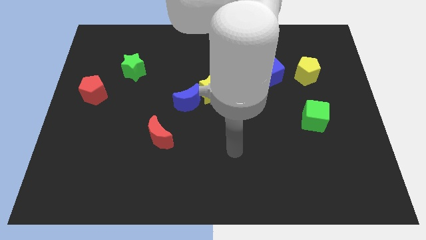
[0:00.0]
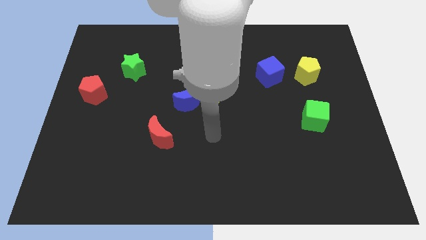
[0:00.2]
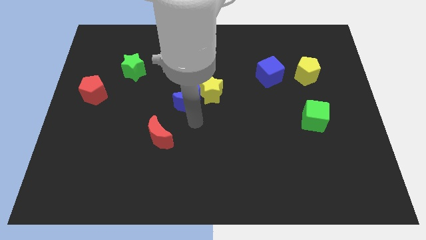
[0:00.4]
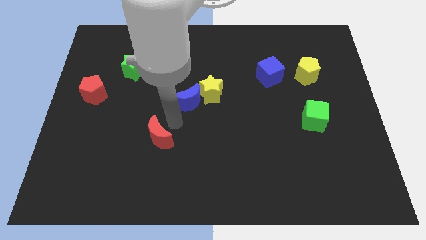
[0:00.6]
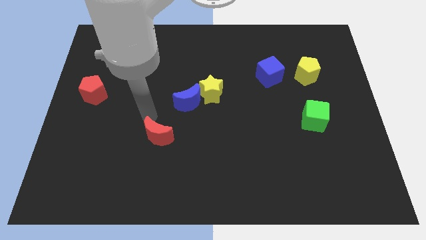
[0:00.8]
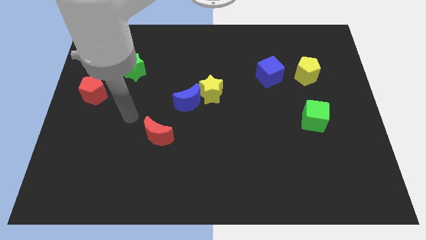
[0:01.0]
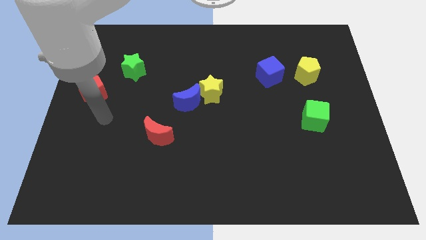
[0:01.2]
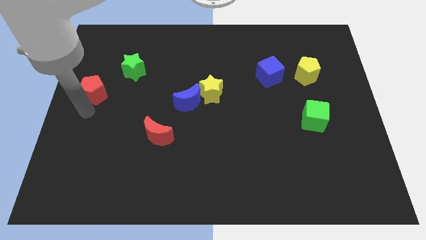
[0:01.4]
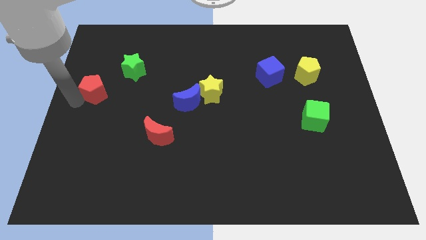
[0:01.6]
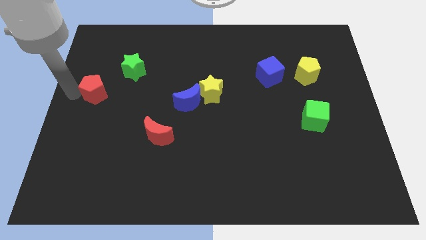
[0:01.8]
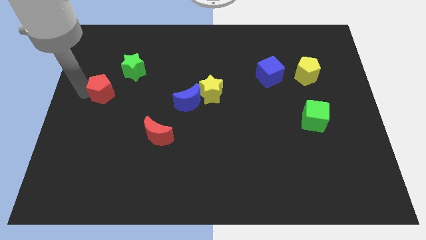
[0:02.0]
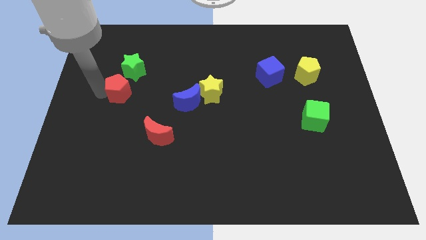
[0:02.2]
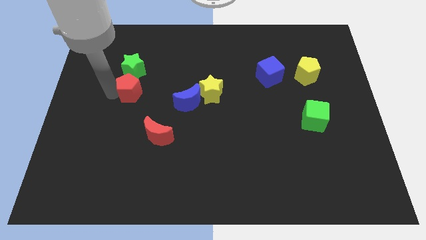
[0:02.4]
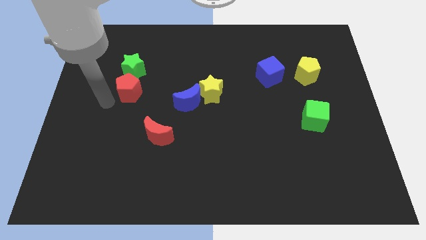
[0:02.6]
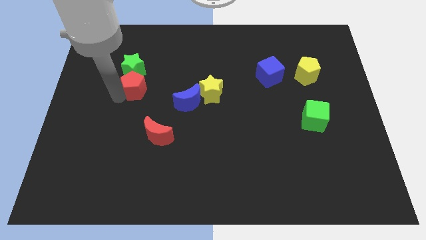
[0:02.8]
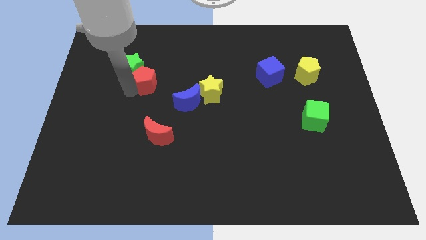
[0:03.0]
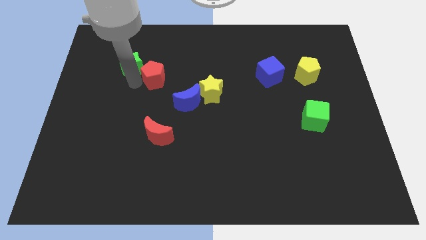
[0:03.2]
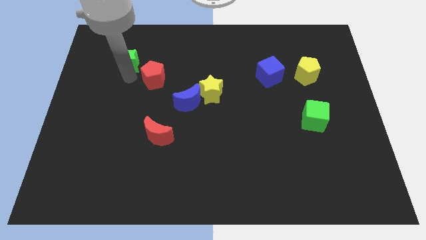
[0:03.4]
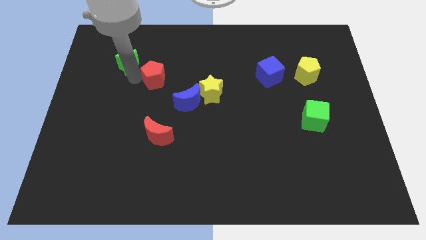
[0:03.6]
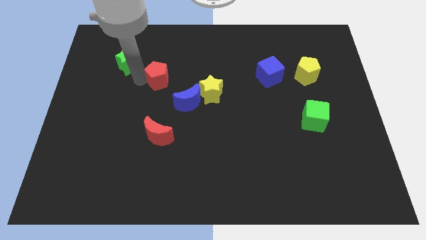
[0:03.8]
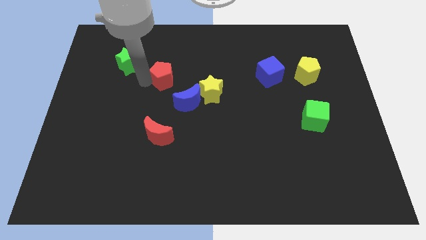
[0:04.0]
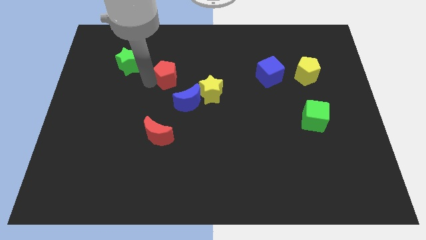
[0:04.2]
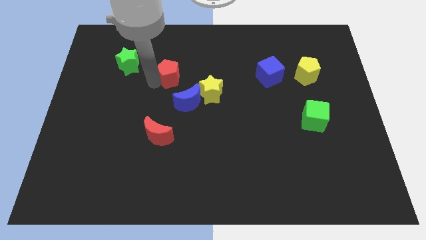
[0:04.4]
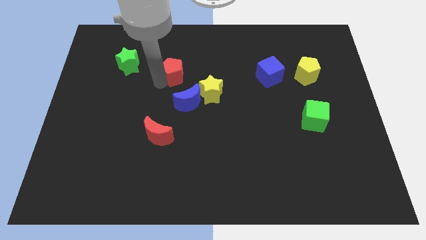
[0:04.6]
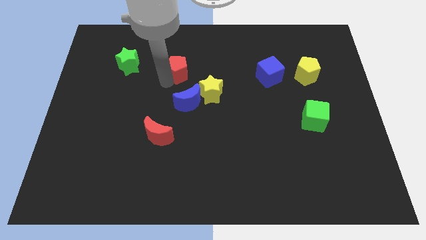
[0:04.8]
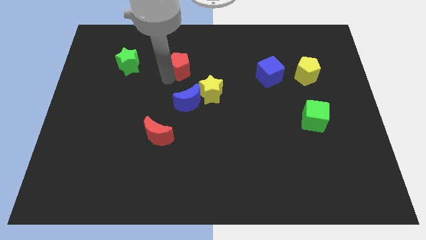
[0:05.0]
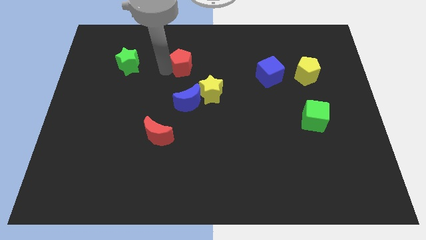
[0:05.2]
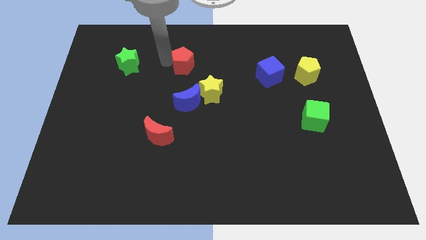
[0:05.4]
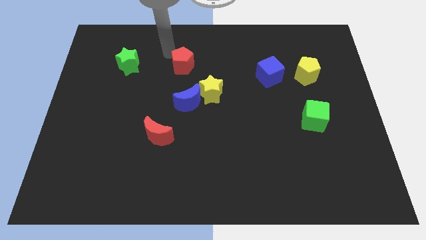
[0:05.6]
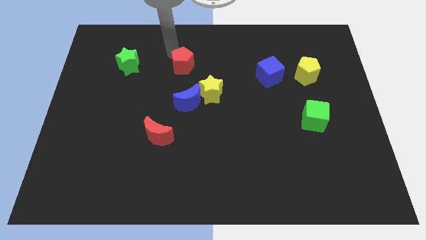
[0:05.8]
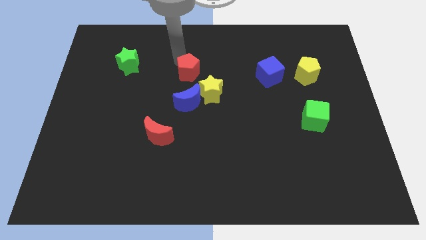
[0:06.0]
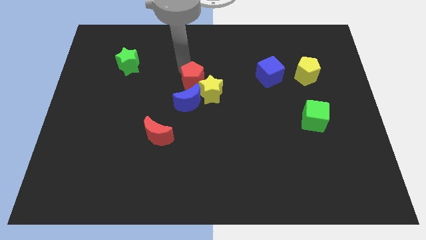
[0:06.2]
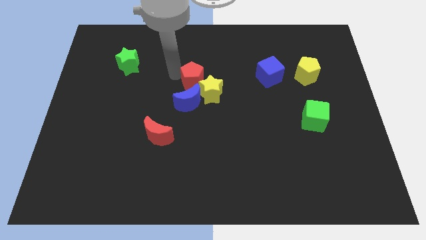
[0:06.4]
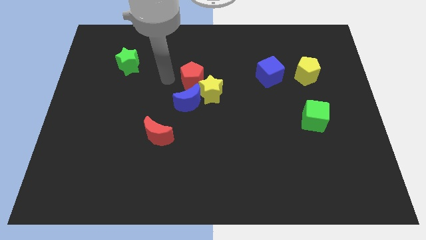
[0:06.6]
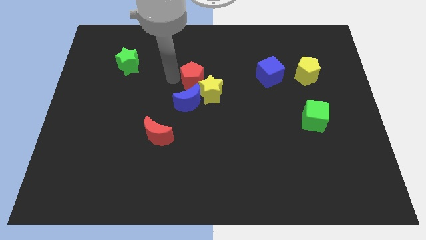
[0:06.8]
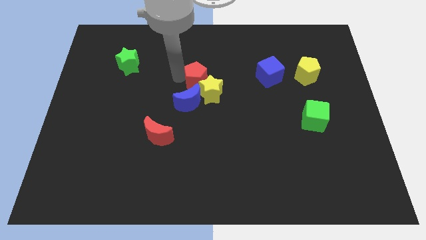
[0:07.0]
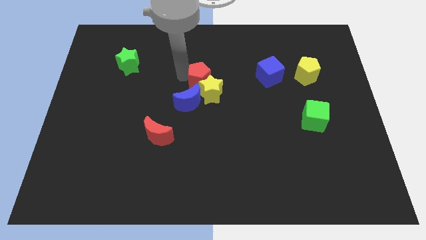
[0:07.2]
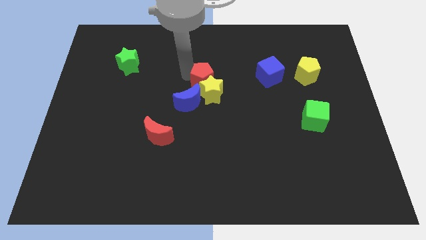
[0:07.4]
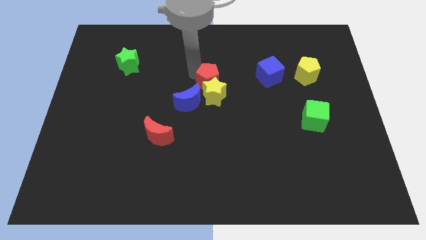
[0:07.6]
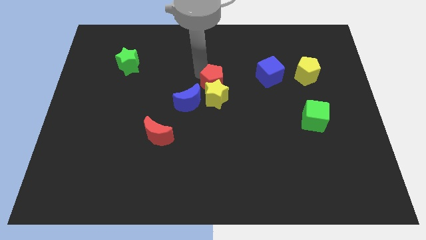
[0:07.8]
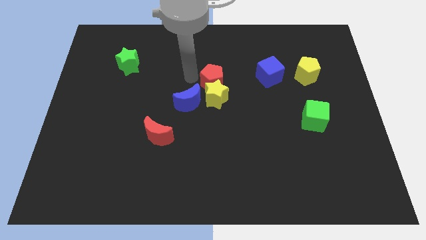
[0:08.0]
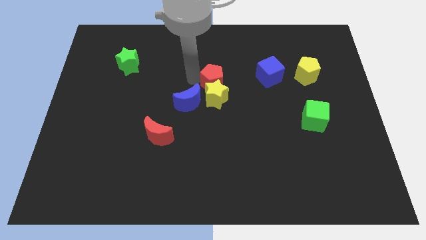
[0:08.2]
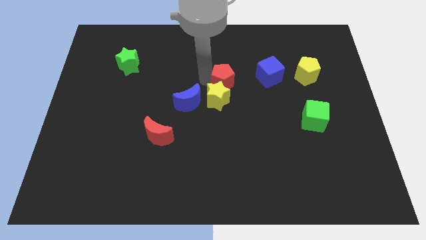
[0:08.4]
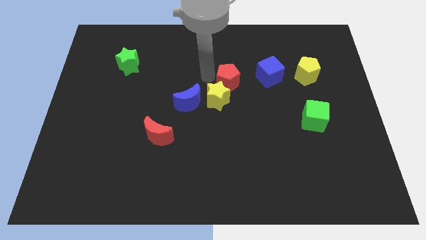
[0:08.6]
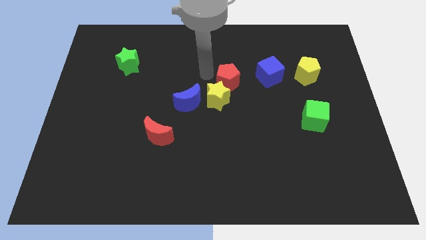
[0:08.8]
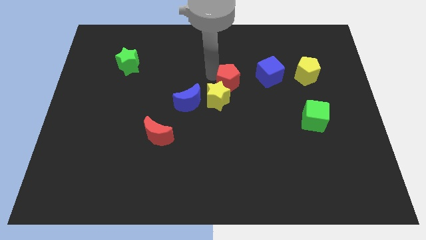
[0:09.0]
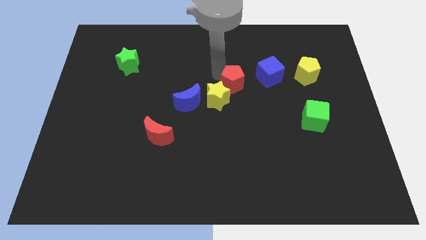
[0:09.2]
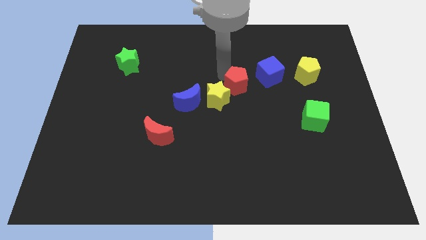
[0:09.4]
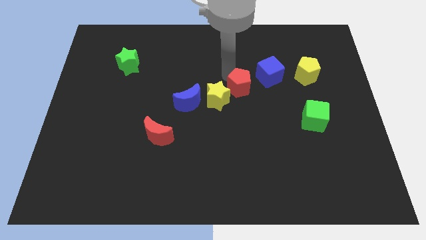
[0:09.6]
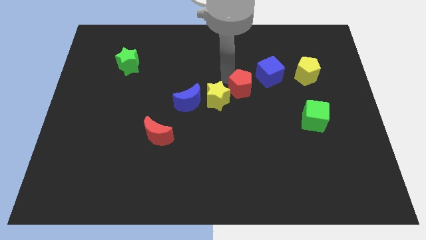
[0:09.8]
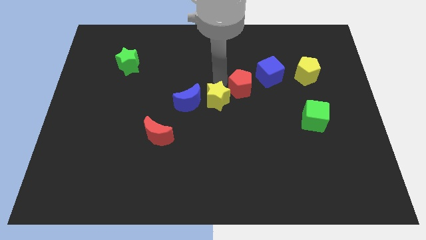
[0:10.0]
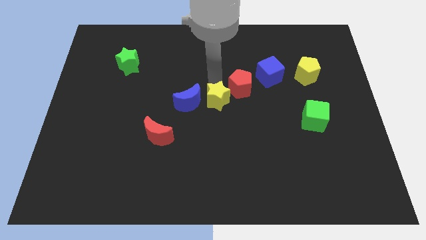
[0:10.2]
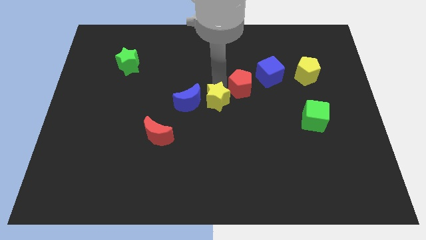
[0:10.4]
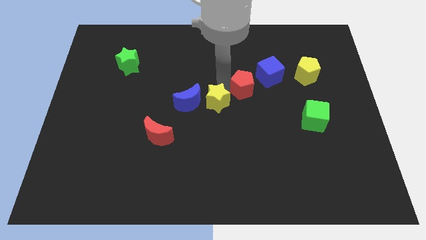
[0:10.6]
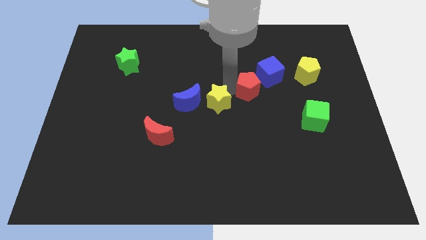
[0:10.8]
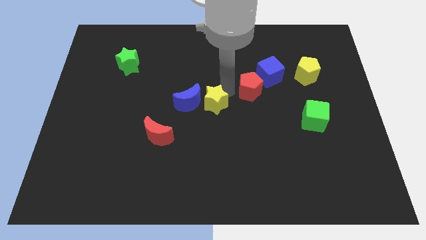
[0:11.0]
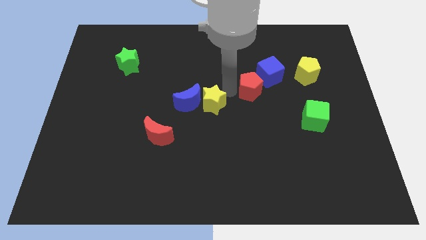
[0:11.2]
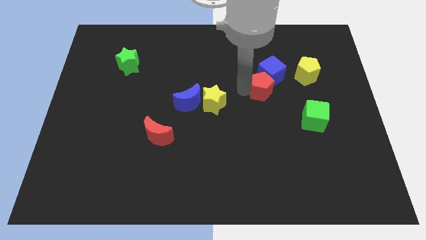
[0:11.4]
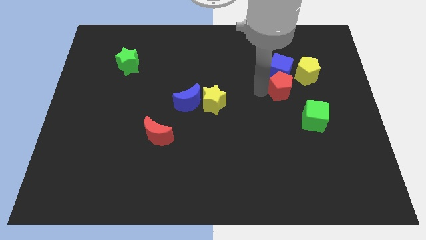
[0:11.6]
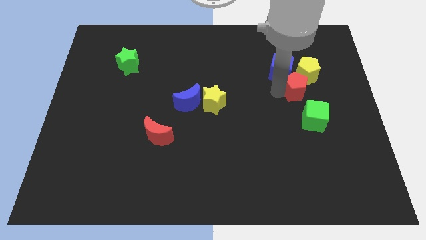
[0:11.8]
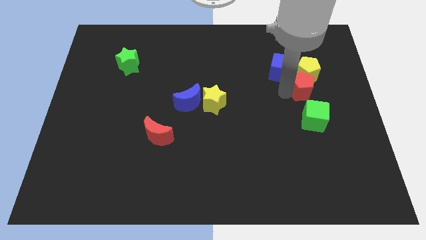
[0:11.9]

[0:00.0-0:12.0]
put the red pentagon close to the yellow pentagon

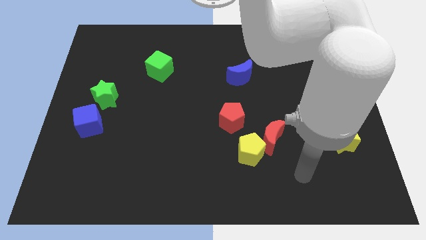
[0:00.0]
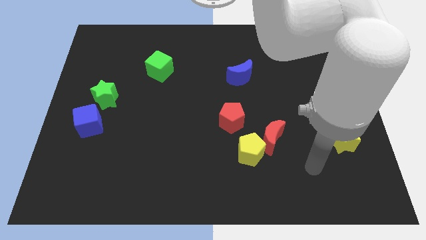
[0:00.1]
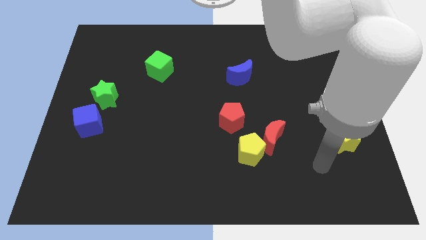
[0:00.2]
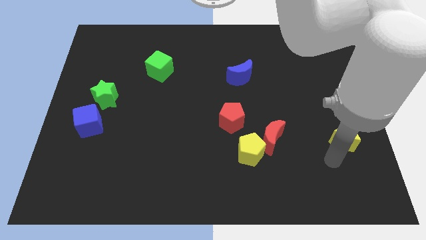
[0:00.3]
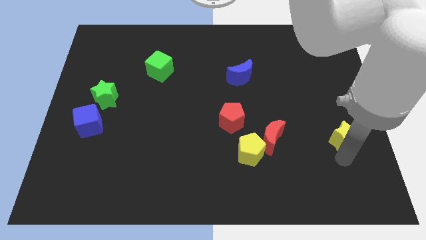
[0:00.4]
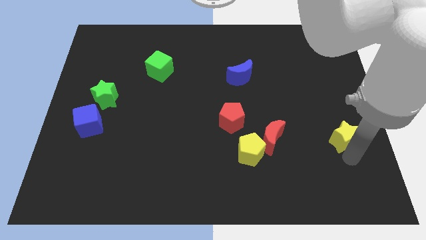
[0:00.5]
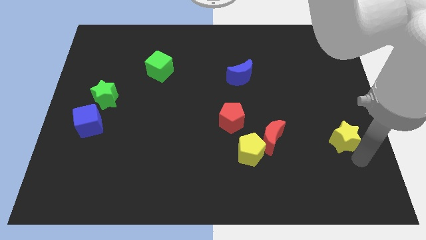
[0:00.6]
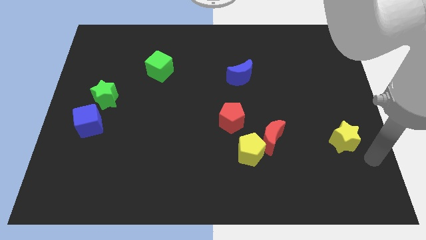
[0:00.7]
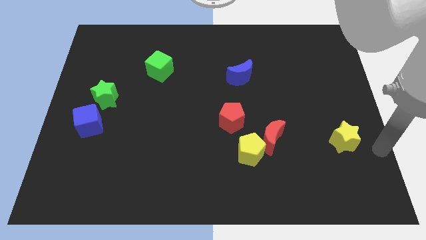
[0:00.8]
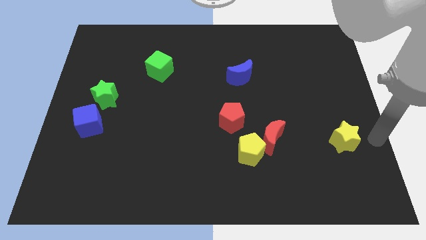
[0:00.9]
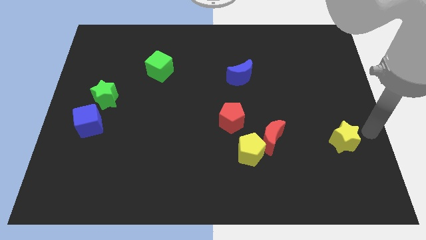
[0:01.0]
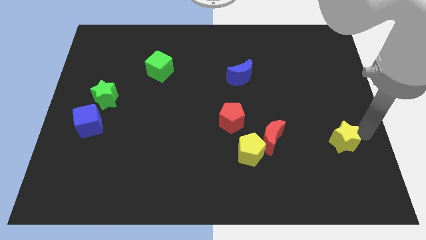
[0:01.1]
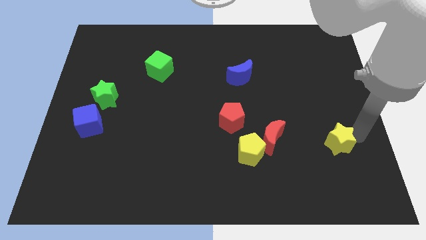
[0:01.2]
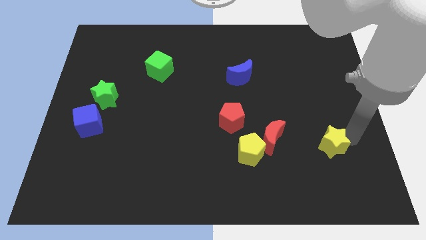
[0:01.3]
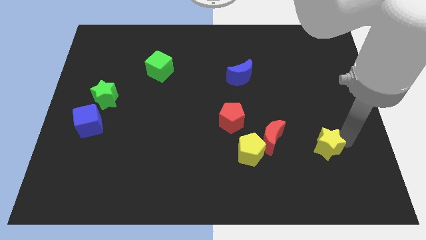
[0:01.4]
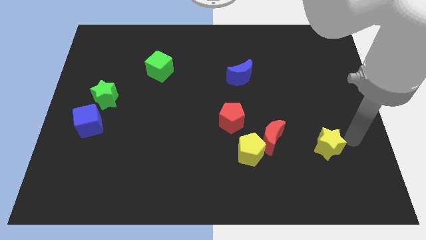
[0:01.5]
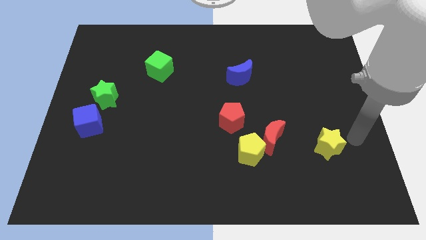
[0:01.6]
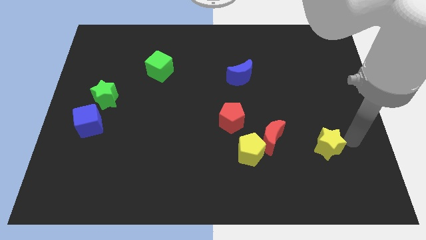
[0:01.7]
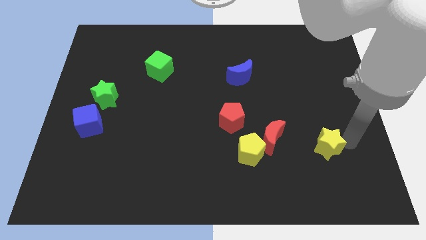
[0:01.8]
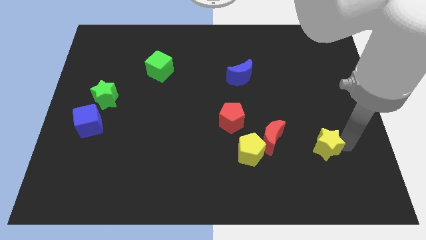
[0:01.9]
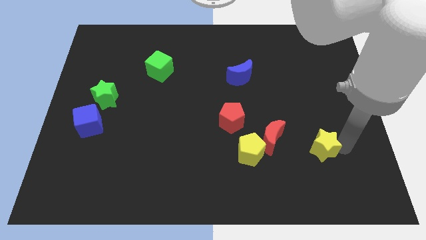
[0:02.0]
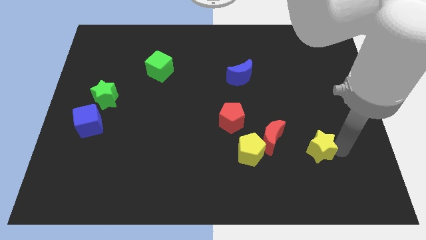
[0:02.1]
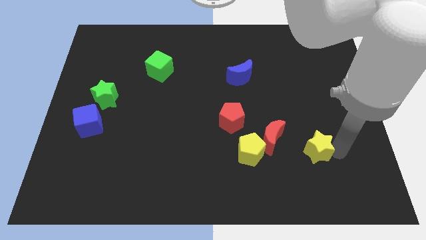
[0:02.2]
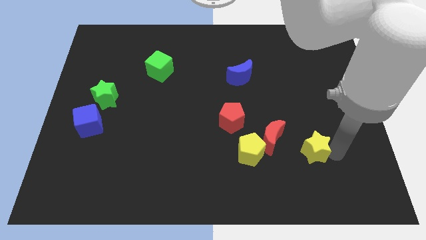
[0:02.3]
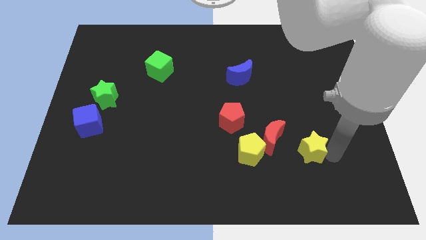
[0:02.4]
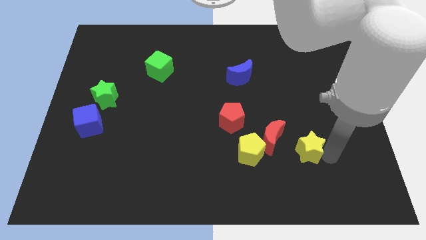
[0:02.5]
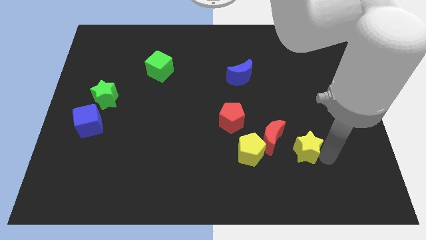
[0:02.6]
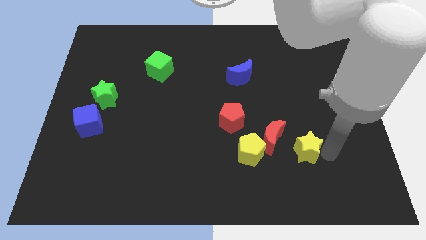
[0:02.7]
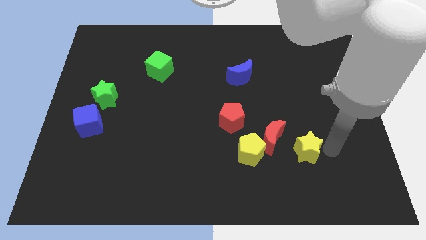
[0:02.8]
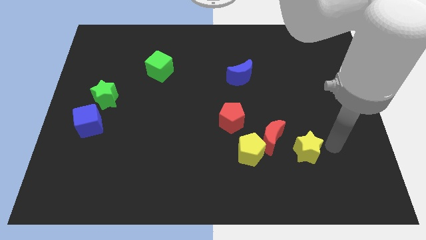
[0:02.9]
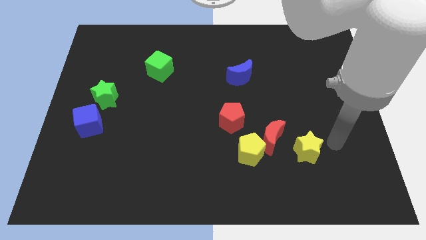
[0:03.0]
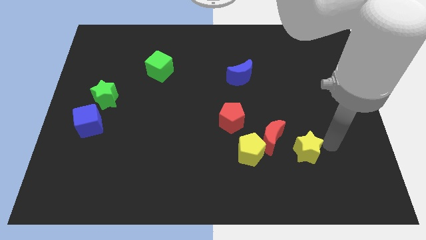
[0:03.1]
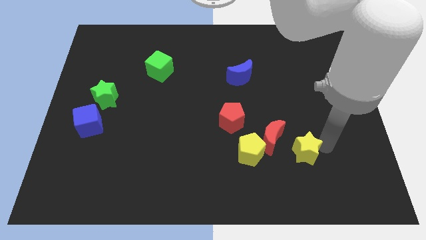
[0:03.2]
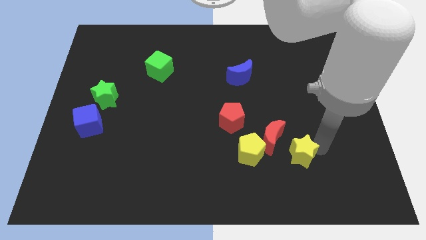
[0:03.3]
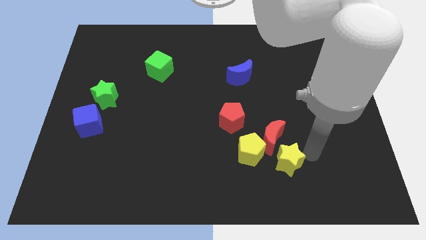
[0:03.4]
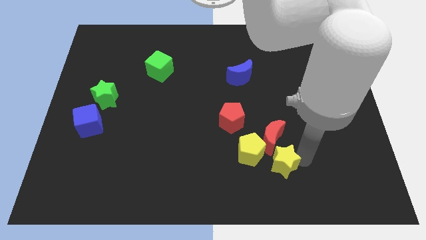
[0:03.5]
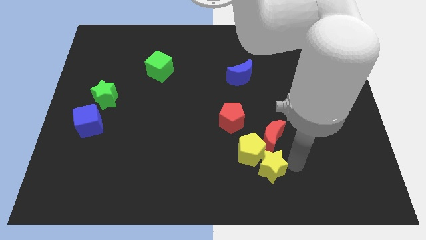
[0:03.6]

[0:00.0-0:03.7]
push the yellow star close to the yellow pentagon
